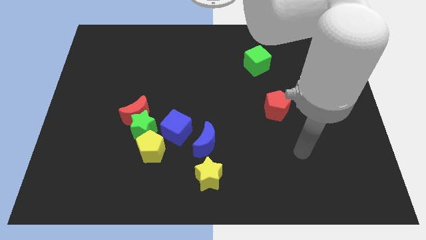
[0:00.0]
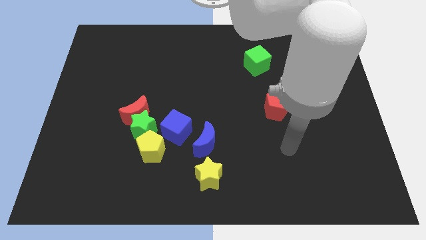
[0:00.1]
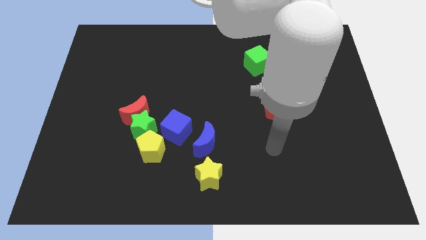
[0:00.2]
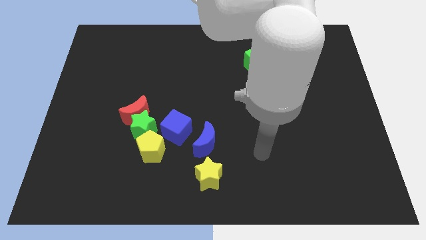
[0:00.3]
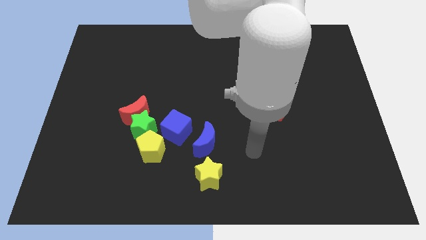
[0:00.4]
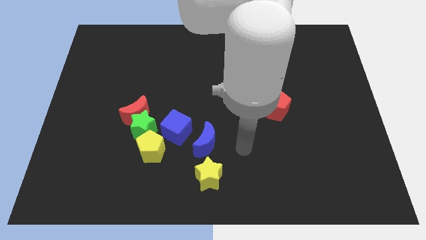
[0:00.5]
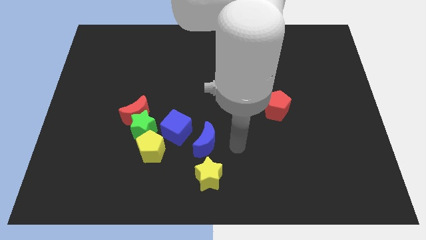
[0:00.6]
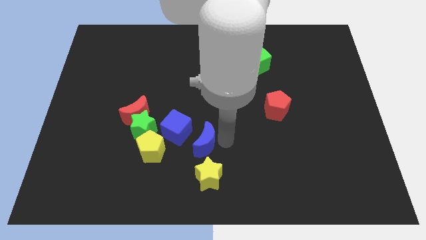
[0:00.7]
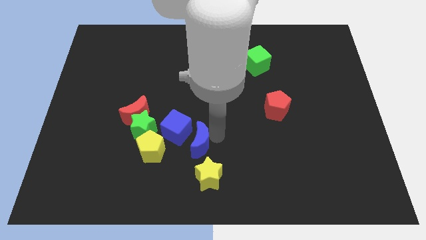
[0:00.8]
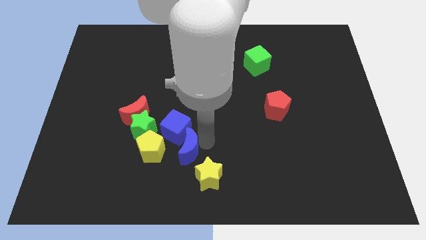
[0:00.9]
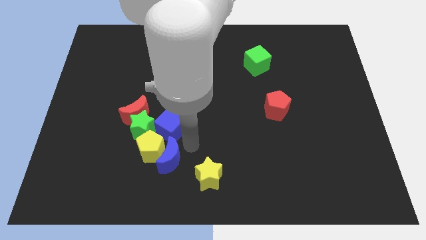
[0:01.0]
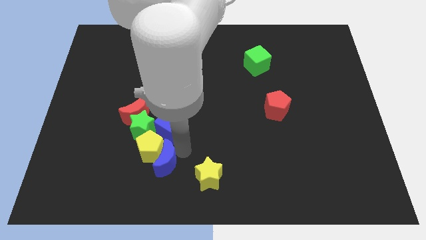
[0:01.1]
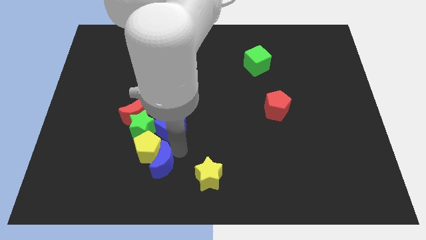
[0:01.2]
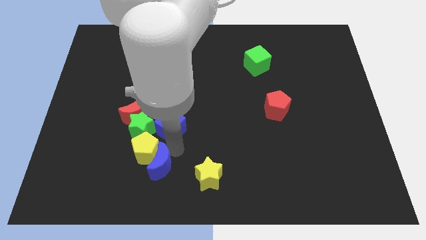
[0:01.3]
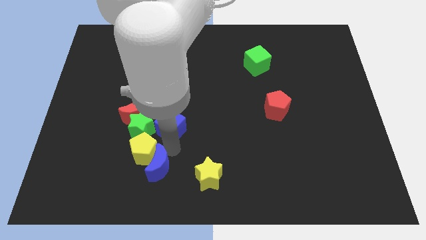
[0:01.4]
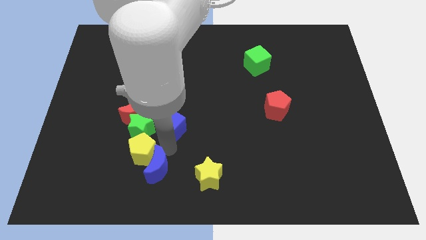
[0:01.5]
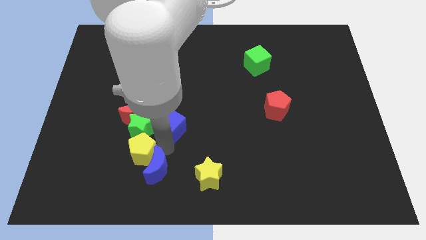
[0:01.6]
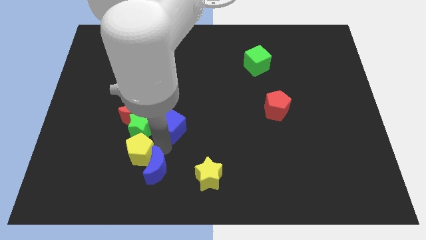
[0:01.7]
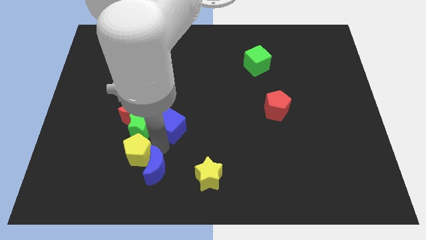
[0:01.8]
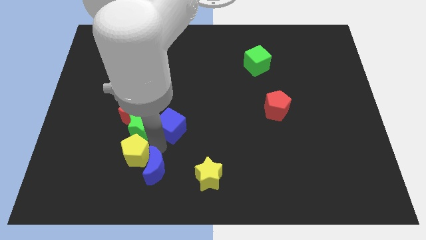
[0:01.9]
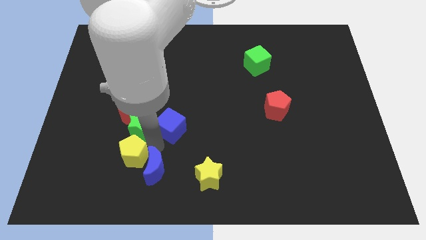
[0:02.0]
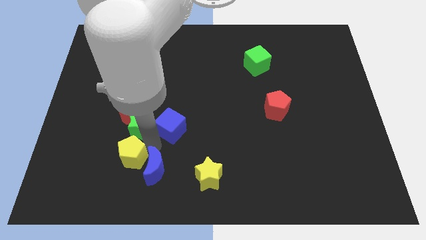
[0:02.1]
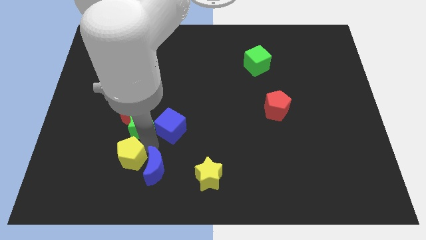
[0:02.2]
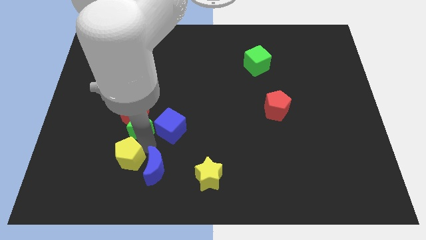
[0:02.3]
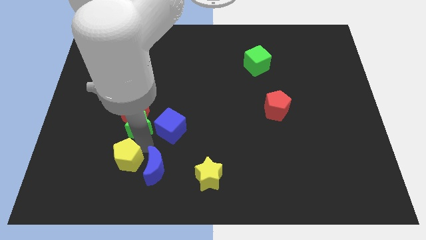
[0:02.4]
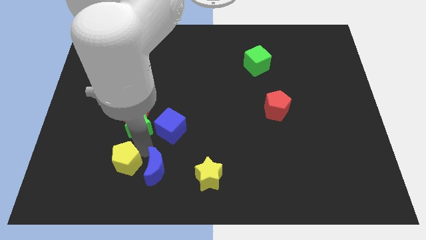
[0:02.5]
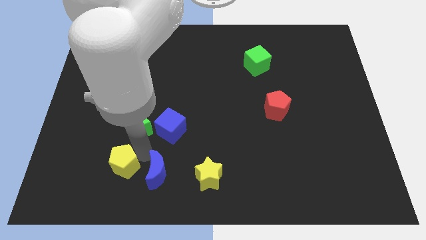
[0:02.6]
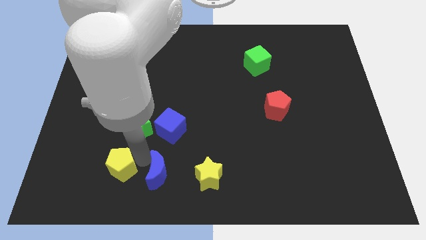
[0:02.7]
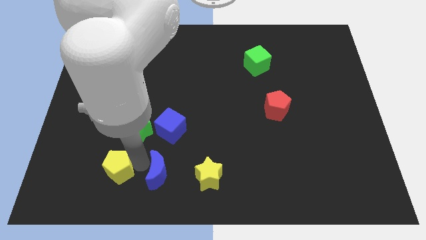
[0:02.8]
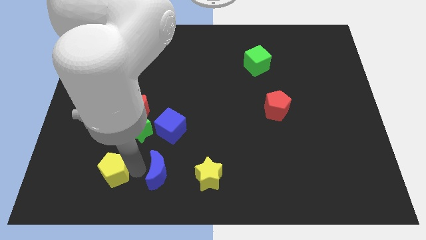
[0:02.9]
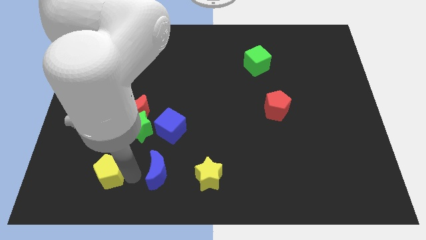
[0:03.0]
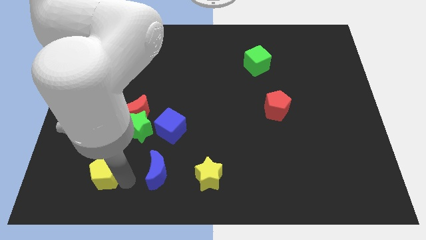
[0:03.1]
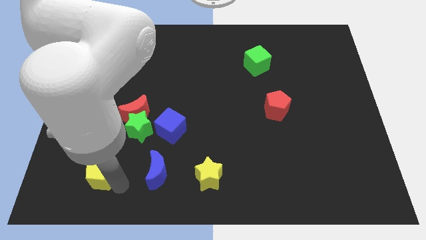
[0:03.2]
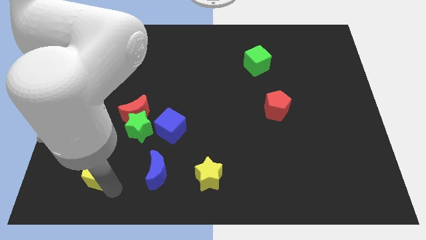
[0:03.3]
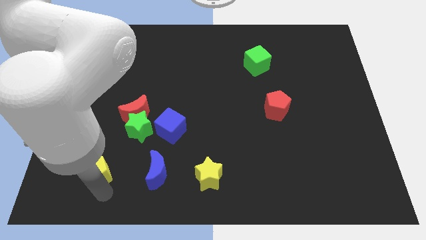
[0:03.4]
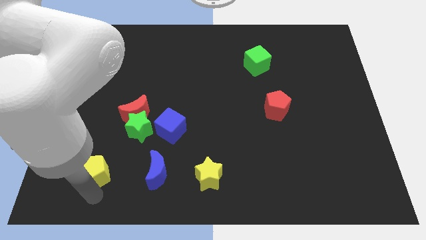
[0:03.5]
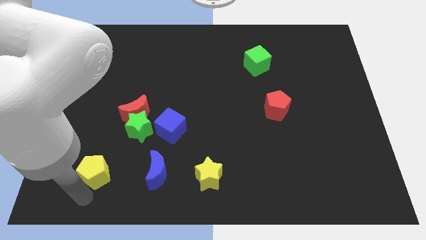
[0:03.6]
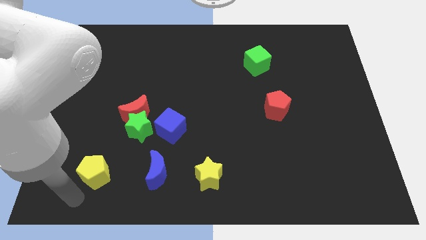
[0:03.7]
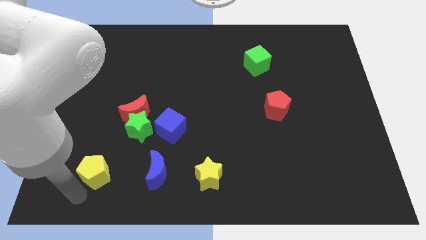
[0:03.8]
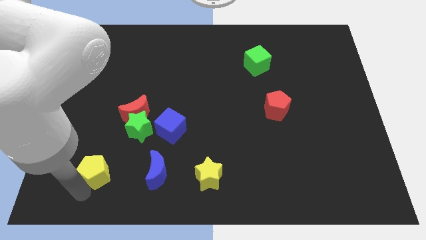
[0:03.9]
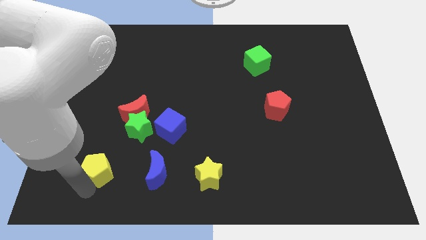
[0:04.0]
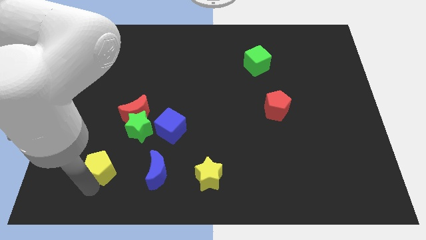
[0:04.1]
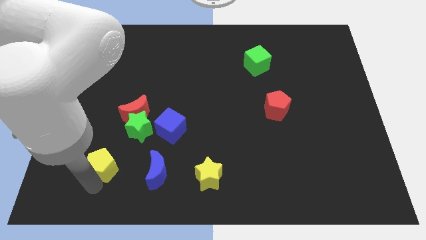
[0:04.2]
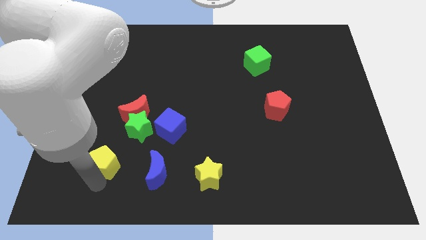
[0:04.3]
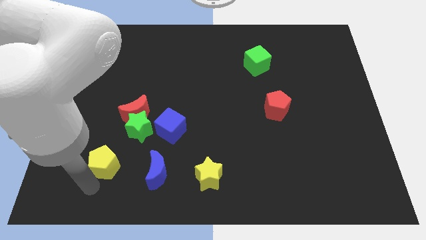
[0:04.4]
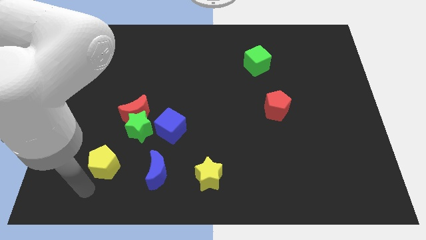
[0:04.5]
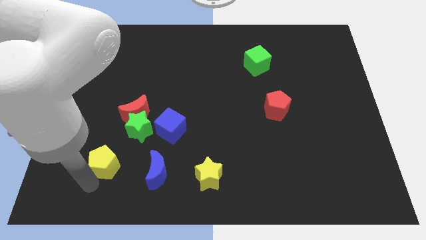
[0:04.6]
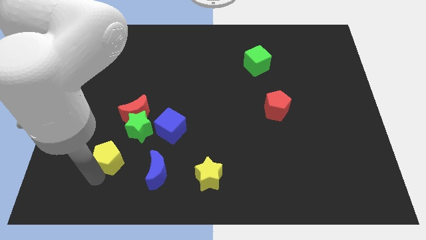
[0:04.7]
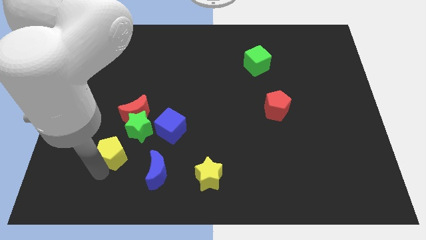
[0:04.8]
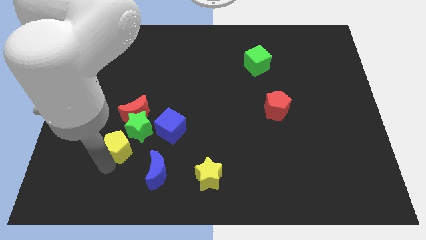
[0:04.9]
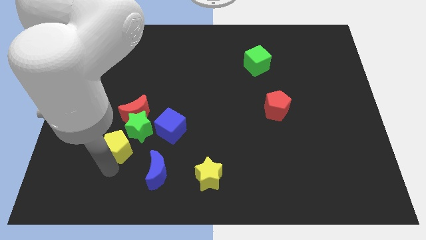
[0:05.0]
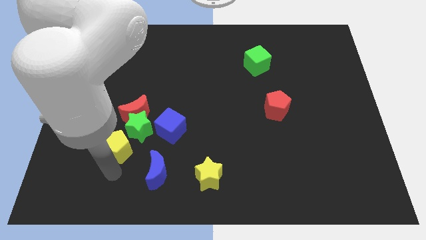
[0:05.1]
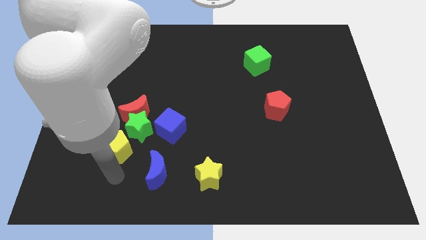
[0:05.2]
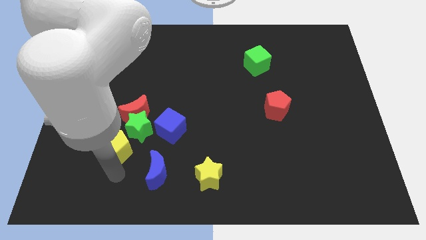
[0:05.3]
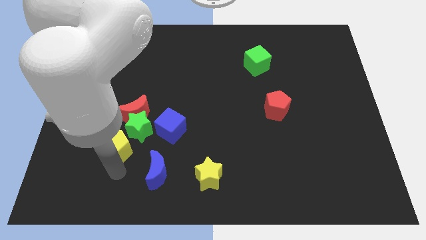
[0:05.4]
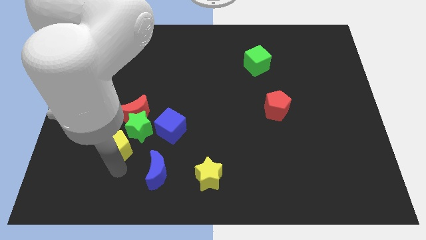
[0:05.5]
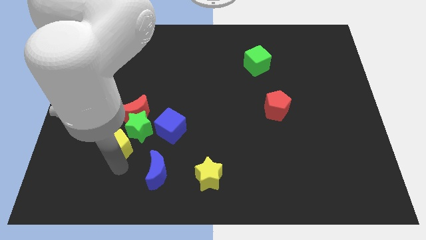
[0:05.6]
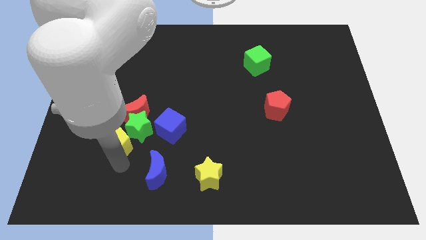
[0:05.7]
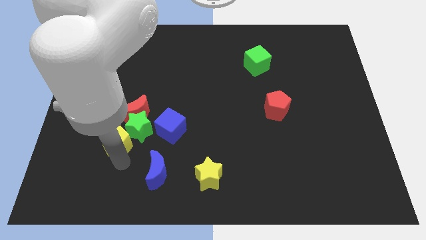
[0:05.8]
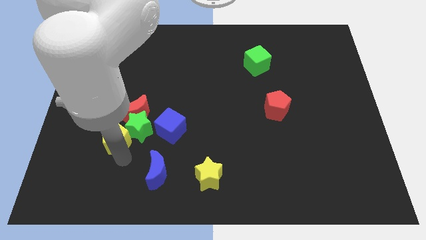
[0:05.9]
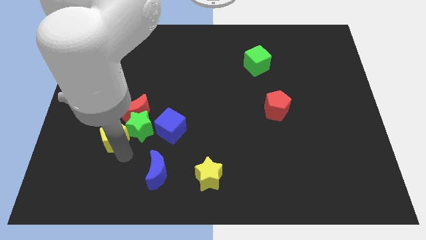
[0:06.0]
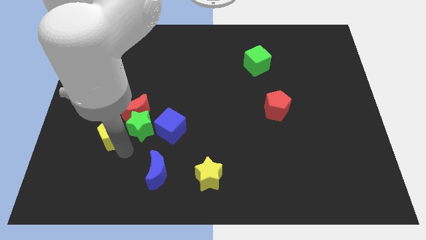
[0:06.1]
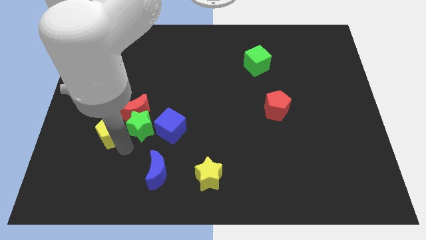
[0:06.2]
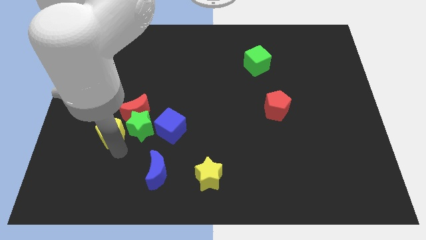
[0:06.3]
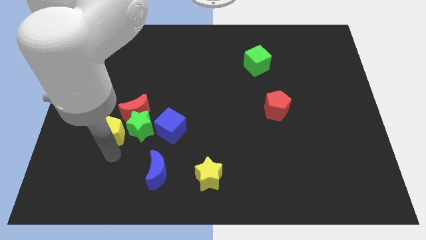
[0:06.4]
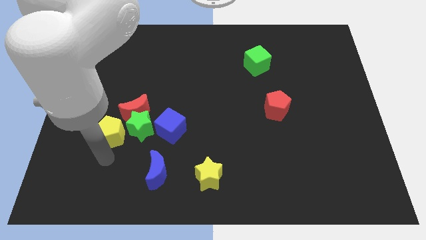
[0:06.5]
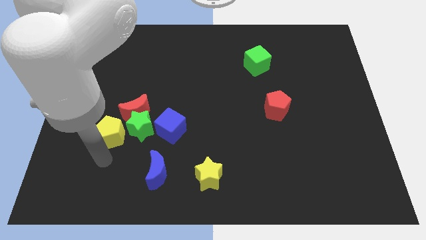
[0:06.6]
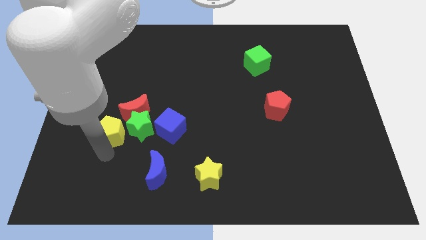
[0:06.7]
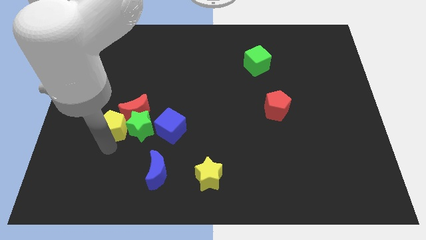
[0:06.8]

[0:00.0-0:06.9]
move the yellow pentagon to the top left side of the green star
